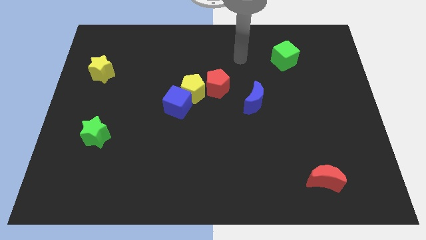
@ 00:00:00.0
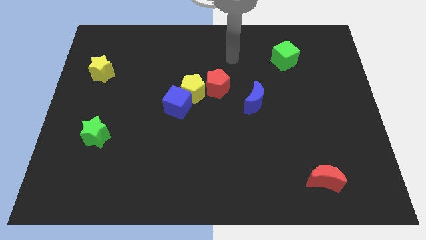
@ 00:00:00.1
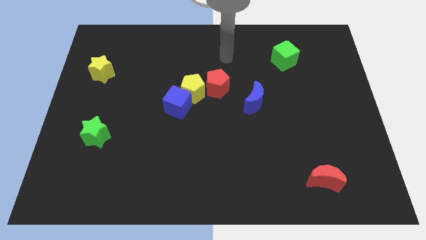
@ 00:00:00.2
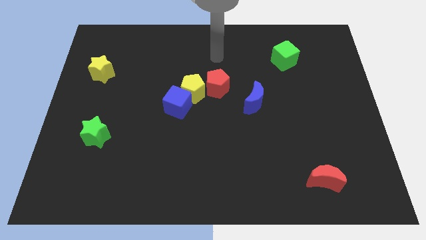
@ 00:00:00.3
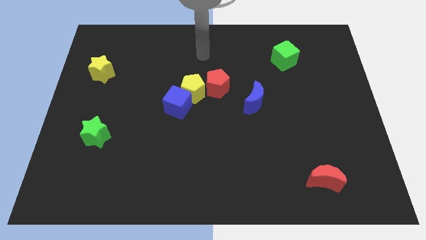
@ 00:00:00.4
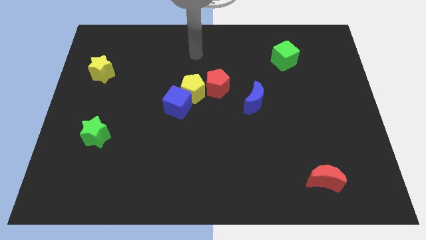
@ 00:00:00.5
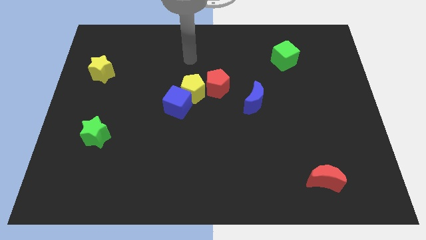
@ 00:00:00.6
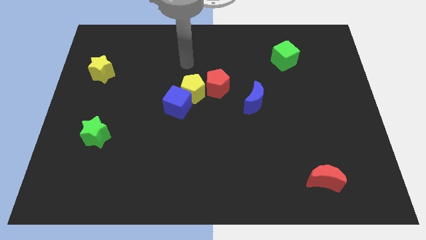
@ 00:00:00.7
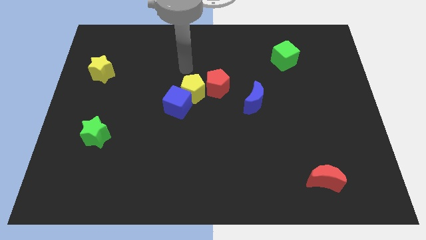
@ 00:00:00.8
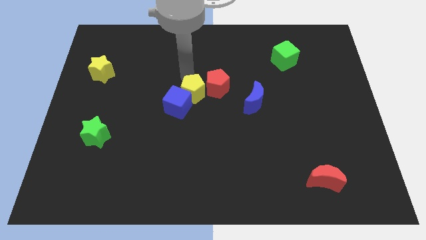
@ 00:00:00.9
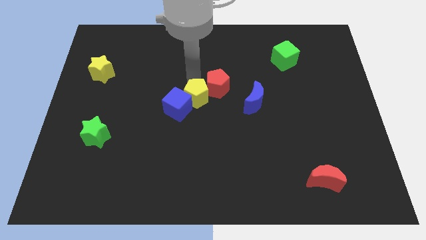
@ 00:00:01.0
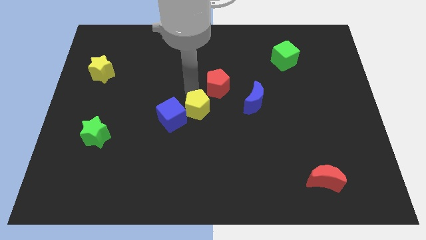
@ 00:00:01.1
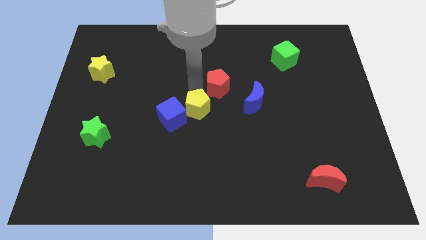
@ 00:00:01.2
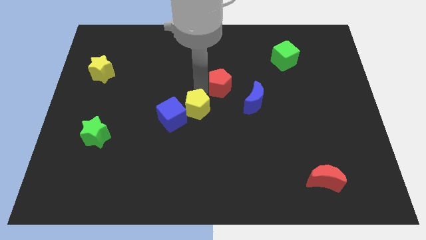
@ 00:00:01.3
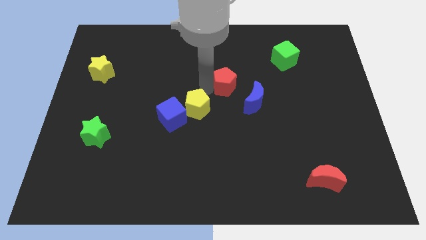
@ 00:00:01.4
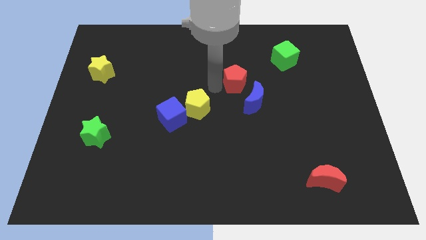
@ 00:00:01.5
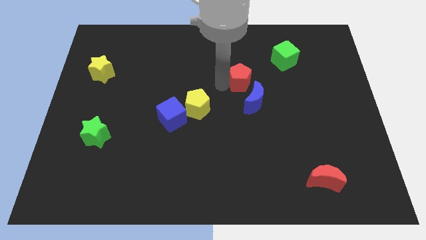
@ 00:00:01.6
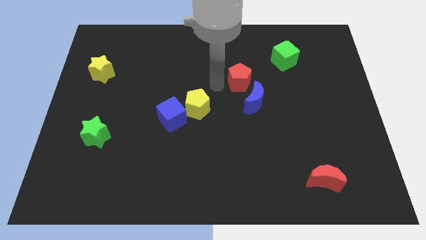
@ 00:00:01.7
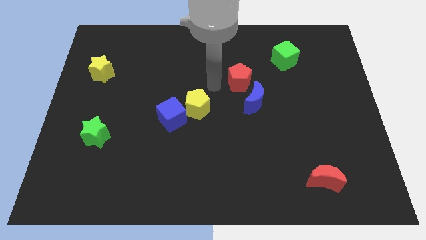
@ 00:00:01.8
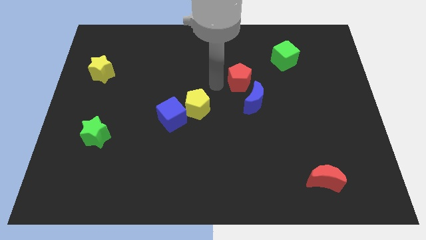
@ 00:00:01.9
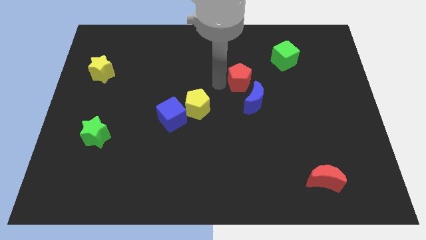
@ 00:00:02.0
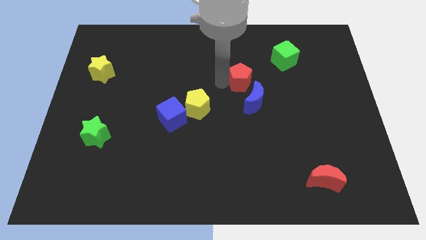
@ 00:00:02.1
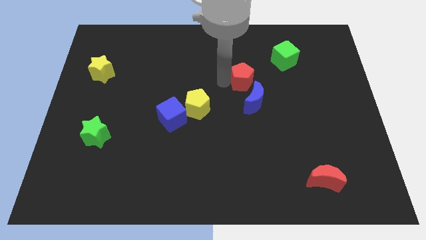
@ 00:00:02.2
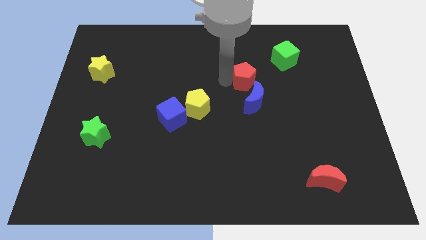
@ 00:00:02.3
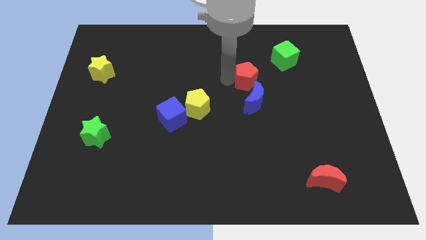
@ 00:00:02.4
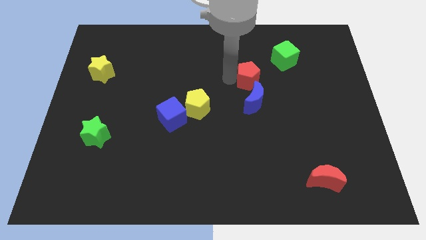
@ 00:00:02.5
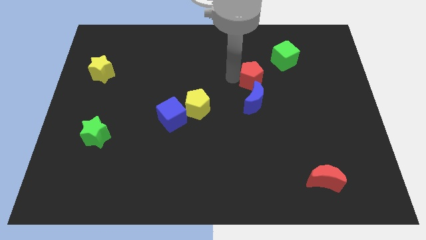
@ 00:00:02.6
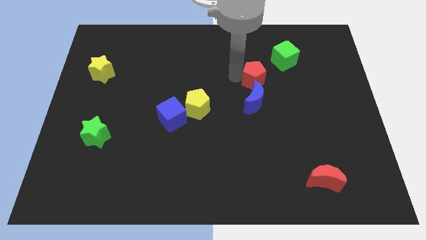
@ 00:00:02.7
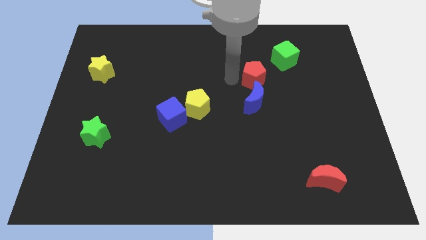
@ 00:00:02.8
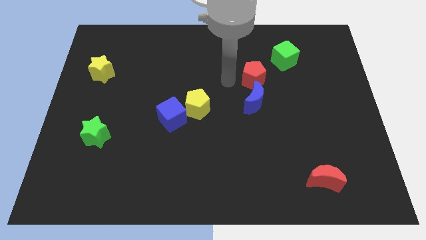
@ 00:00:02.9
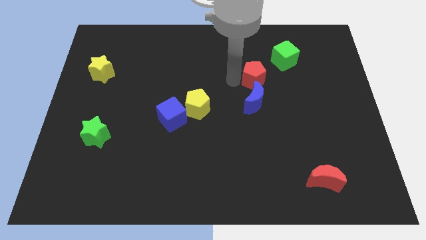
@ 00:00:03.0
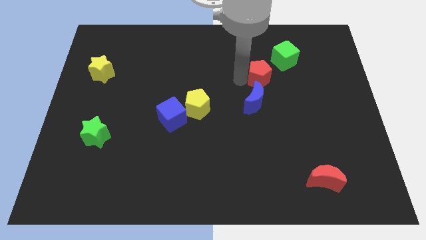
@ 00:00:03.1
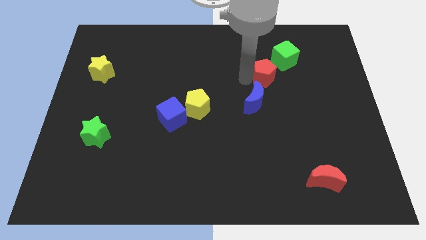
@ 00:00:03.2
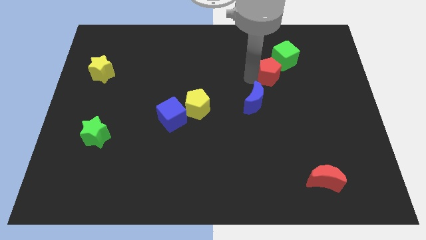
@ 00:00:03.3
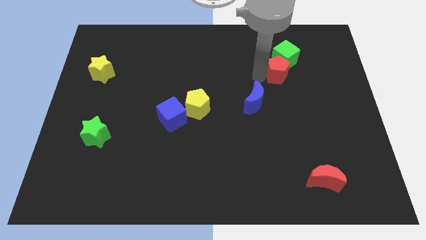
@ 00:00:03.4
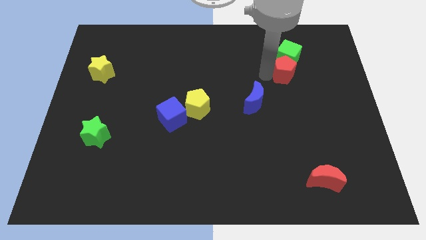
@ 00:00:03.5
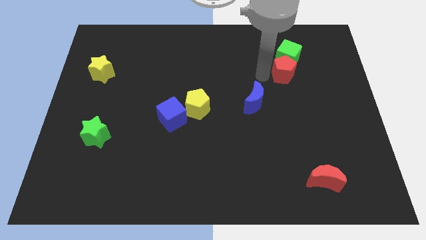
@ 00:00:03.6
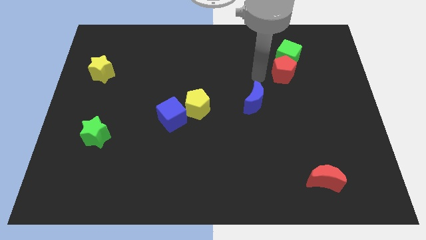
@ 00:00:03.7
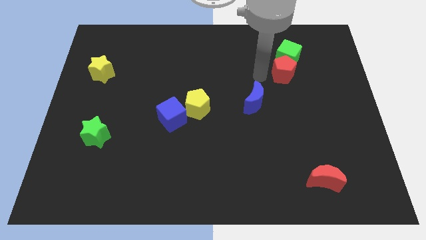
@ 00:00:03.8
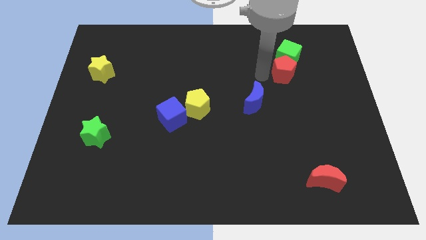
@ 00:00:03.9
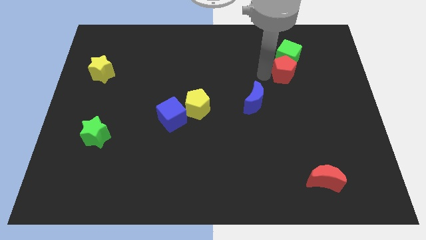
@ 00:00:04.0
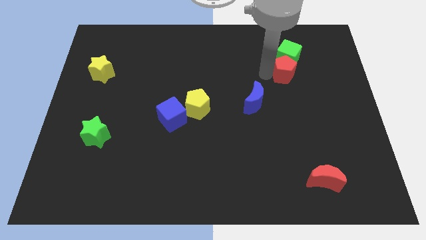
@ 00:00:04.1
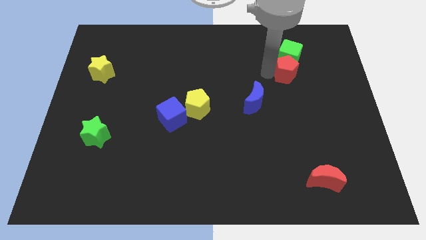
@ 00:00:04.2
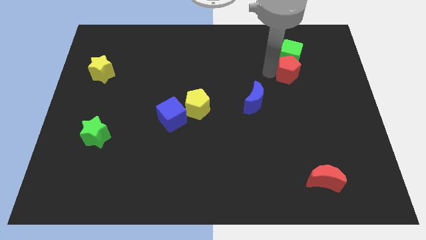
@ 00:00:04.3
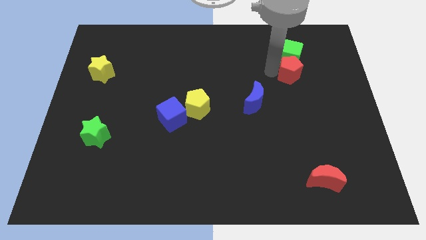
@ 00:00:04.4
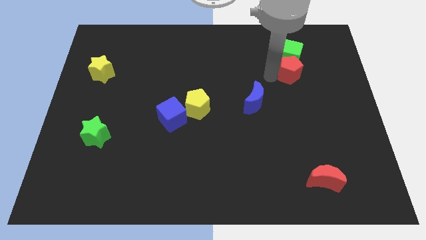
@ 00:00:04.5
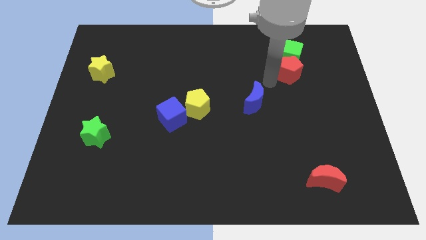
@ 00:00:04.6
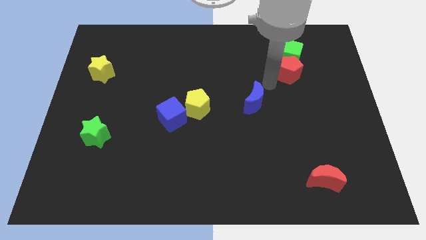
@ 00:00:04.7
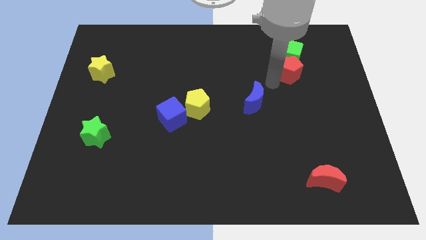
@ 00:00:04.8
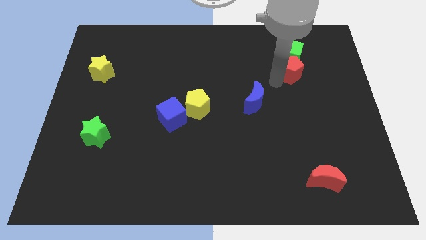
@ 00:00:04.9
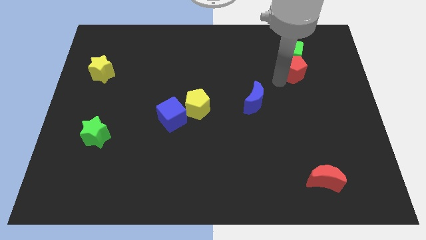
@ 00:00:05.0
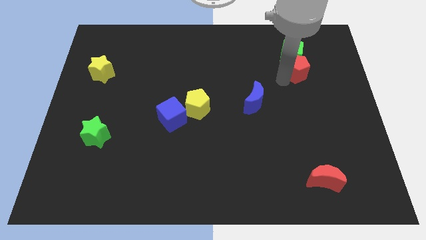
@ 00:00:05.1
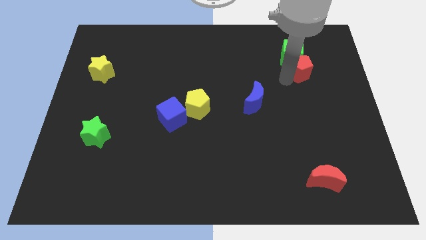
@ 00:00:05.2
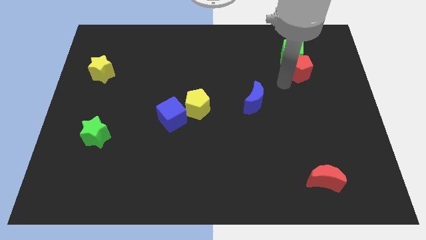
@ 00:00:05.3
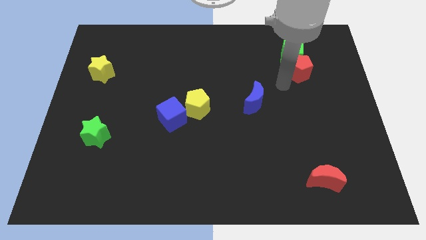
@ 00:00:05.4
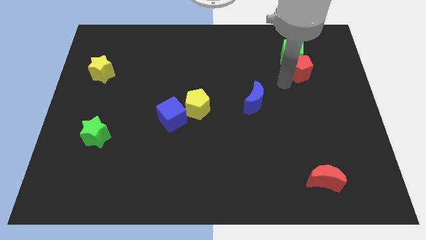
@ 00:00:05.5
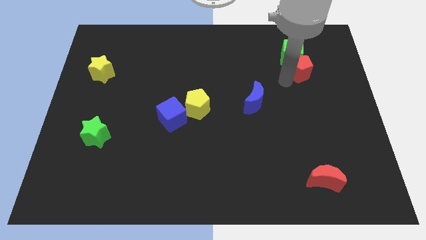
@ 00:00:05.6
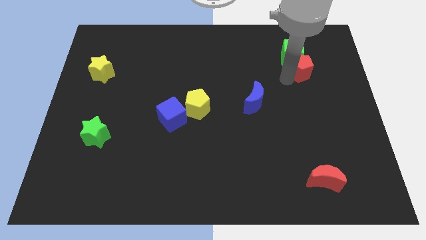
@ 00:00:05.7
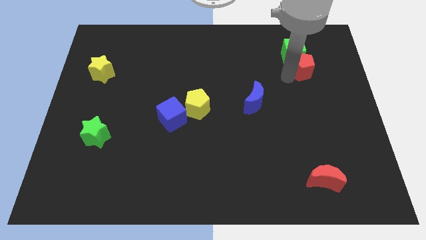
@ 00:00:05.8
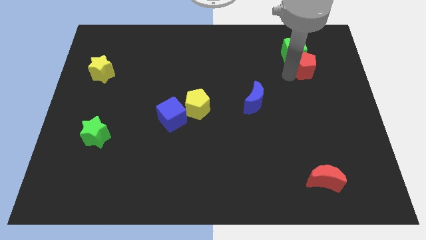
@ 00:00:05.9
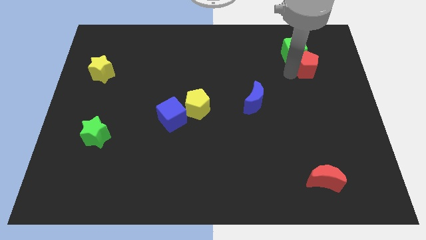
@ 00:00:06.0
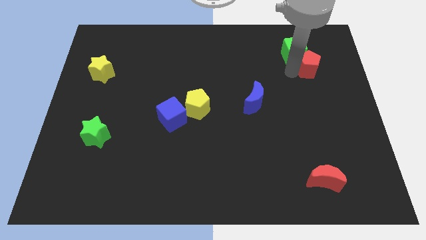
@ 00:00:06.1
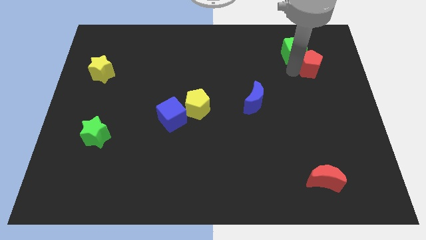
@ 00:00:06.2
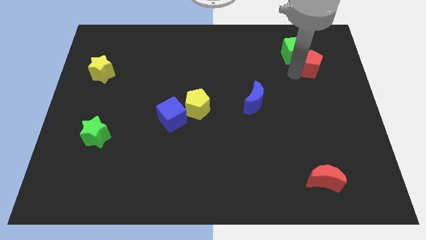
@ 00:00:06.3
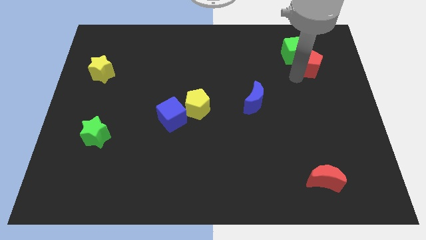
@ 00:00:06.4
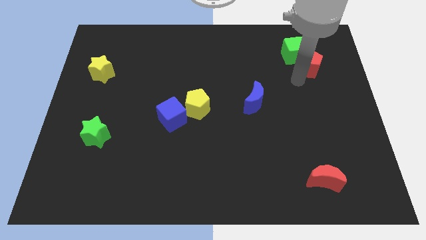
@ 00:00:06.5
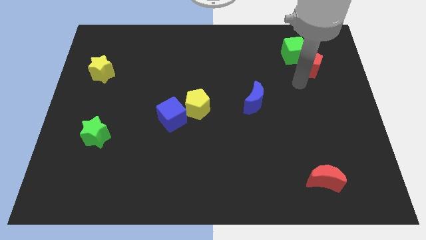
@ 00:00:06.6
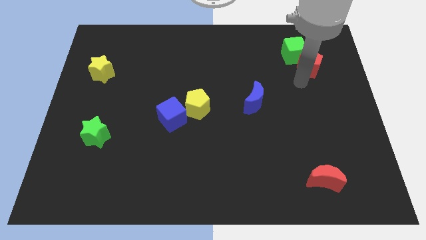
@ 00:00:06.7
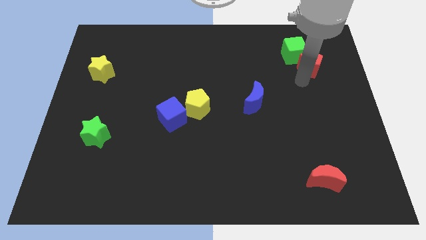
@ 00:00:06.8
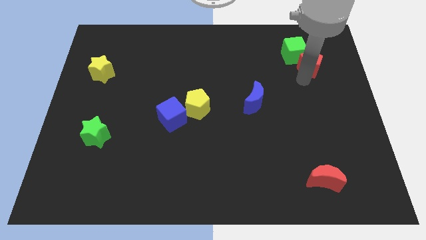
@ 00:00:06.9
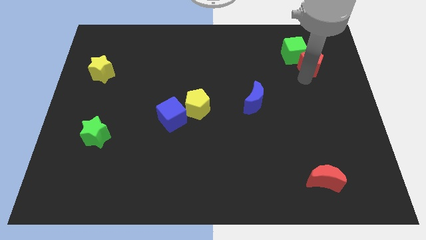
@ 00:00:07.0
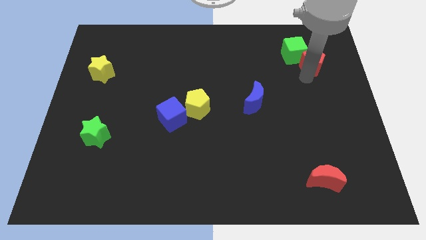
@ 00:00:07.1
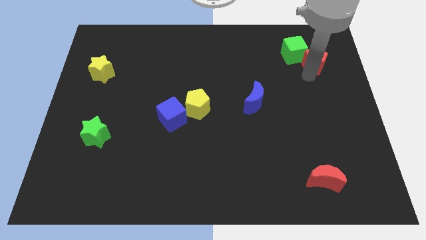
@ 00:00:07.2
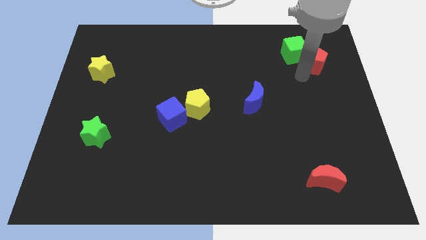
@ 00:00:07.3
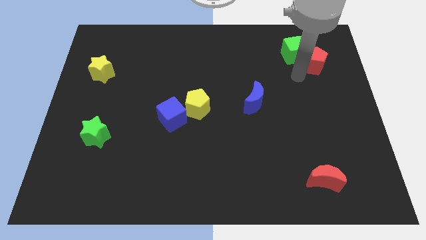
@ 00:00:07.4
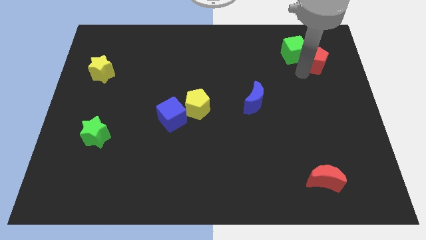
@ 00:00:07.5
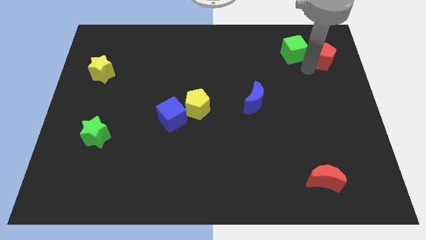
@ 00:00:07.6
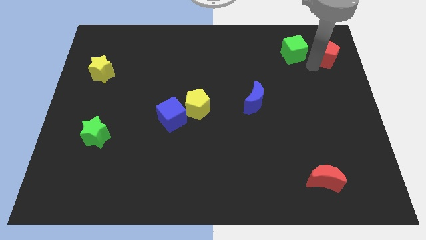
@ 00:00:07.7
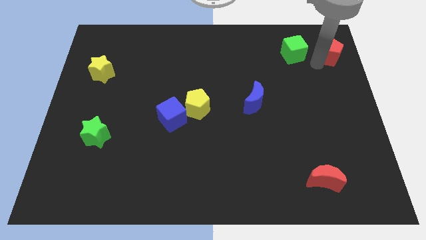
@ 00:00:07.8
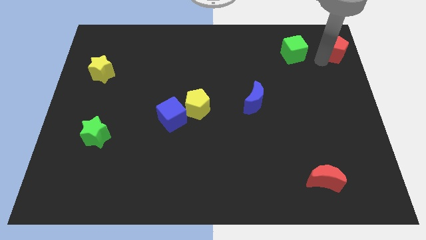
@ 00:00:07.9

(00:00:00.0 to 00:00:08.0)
push the red pentagon to the top right corner
